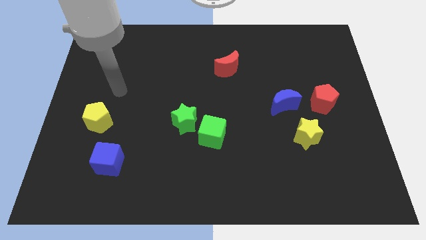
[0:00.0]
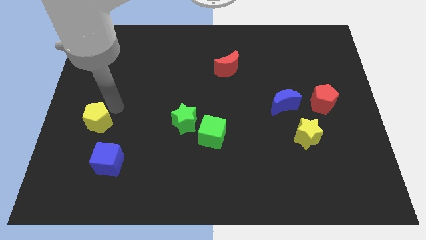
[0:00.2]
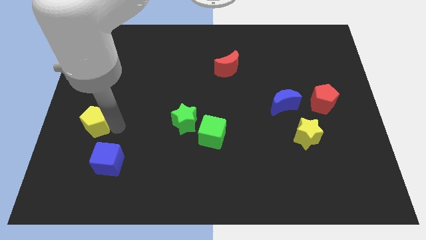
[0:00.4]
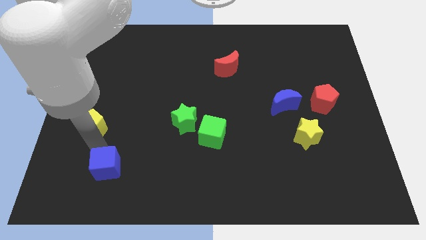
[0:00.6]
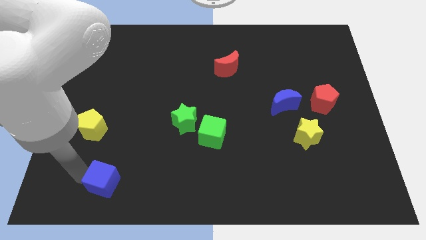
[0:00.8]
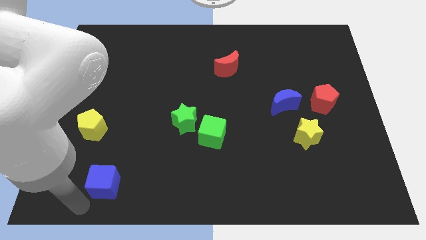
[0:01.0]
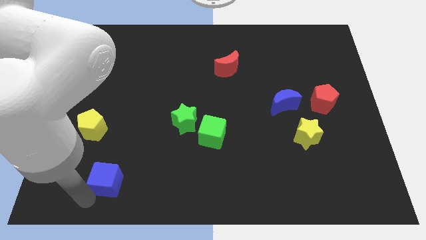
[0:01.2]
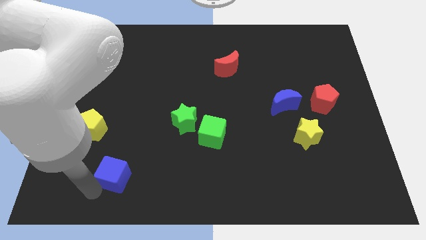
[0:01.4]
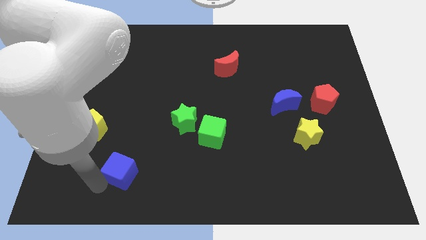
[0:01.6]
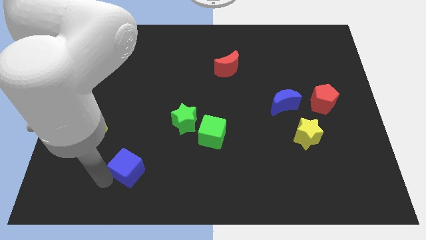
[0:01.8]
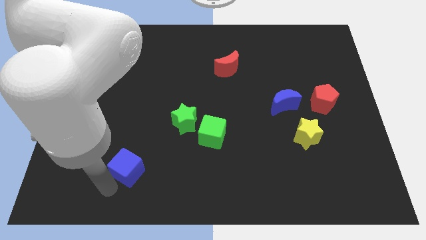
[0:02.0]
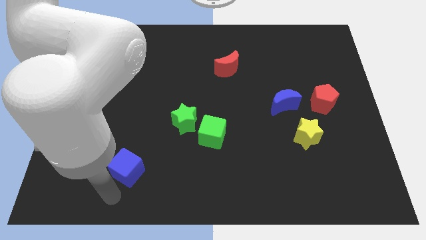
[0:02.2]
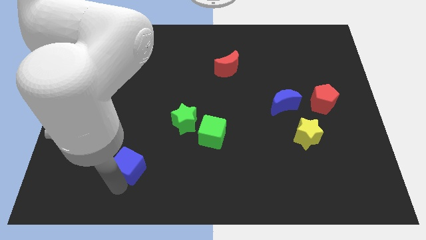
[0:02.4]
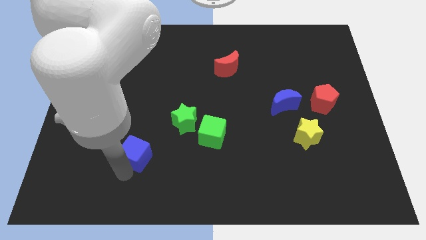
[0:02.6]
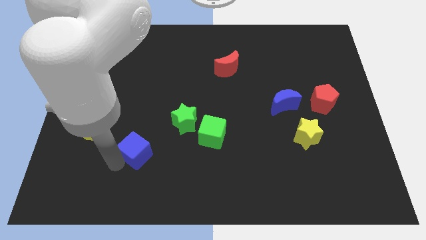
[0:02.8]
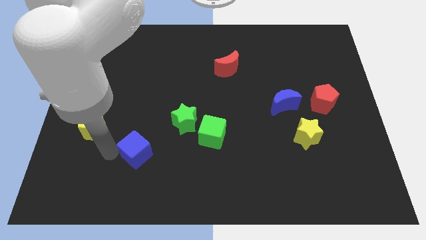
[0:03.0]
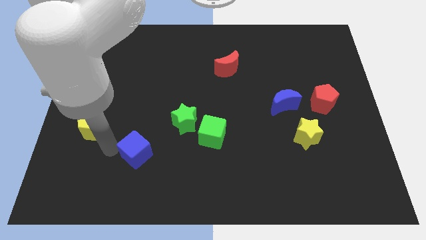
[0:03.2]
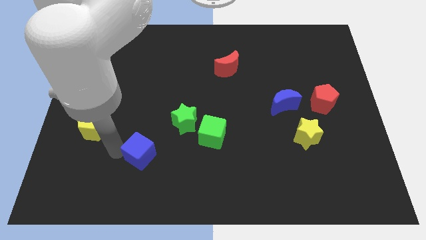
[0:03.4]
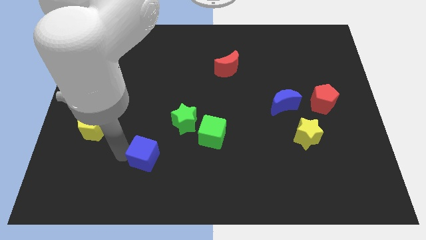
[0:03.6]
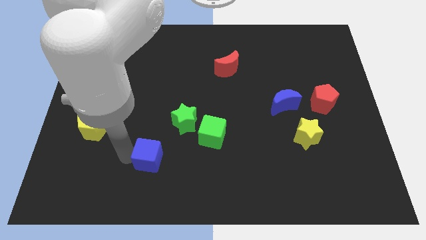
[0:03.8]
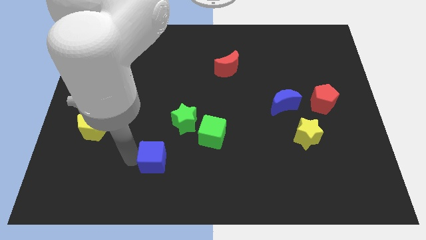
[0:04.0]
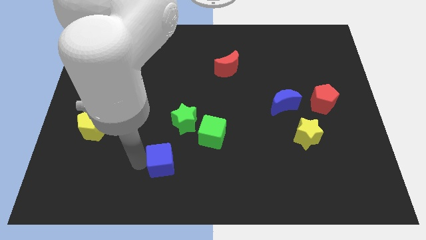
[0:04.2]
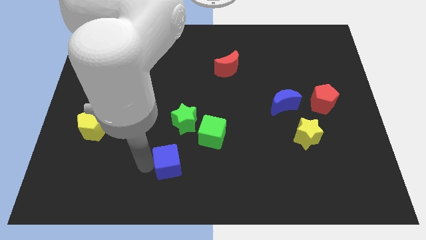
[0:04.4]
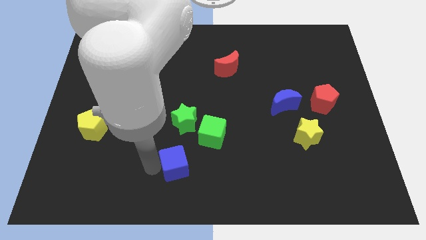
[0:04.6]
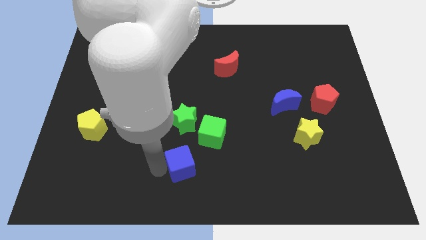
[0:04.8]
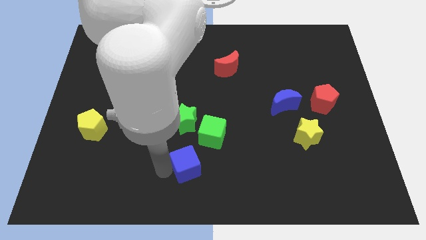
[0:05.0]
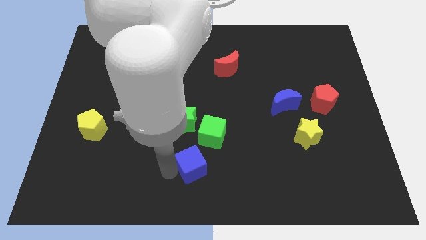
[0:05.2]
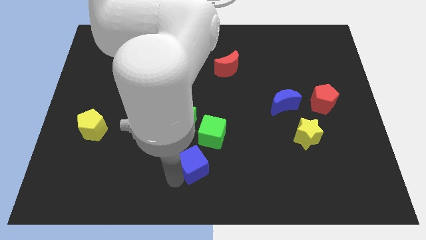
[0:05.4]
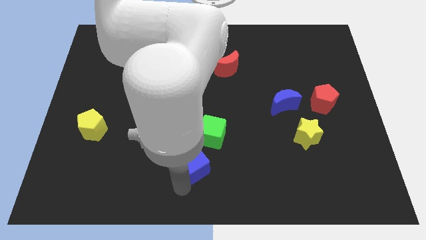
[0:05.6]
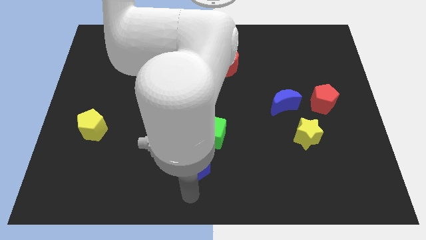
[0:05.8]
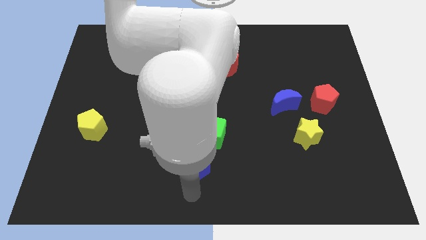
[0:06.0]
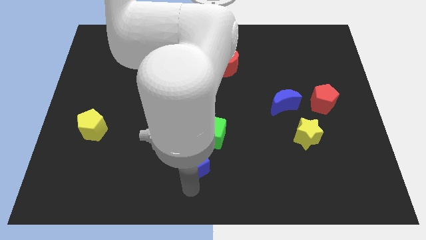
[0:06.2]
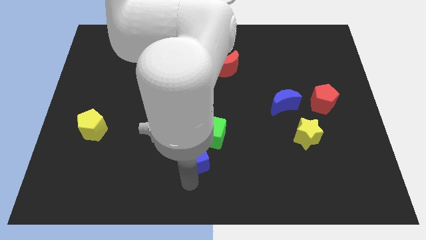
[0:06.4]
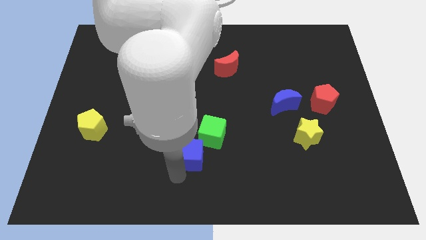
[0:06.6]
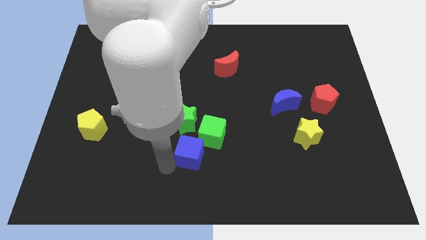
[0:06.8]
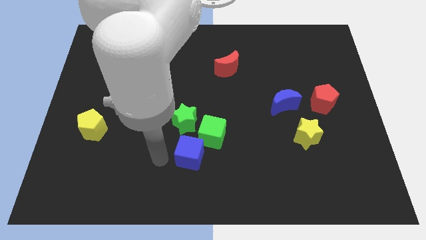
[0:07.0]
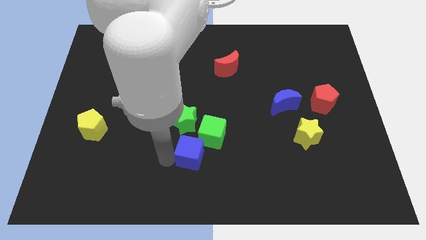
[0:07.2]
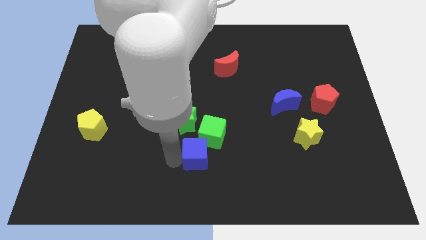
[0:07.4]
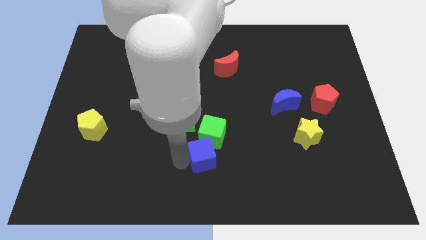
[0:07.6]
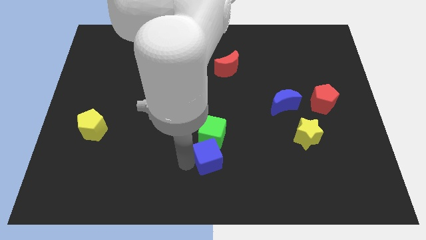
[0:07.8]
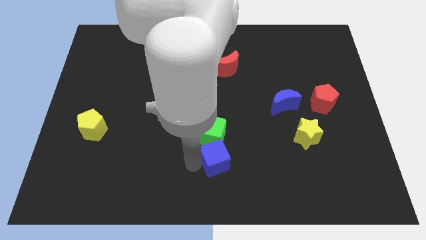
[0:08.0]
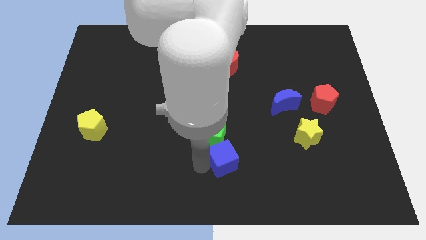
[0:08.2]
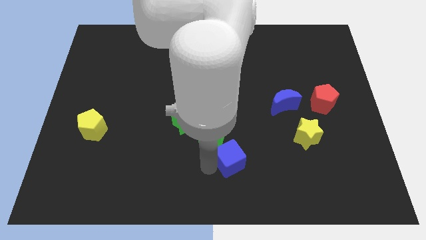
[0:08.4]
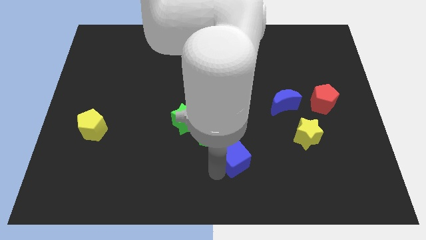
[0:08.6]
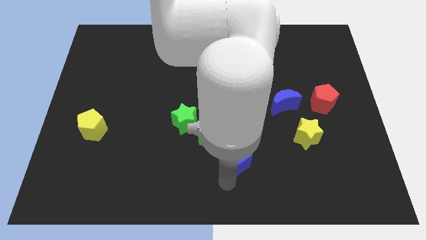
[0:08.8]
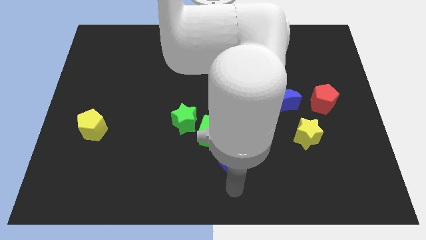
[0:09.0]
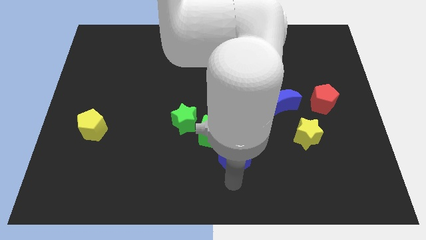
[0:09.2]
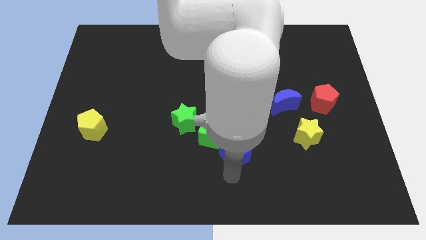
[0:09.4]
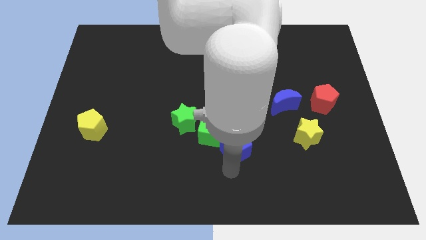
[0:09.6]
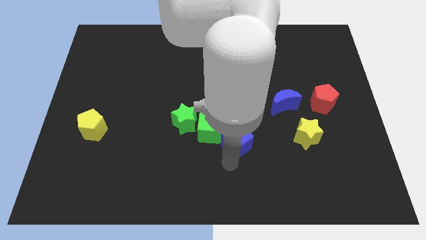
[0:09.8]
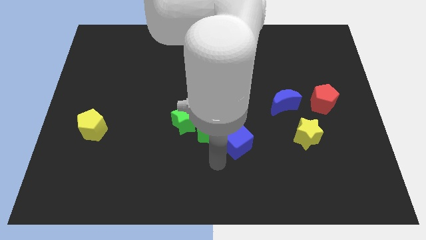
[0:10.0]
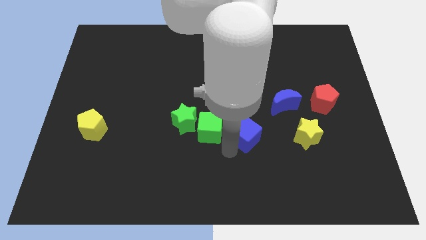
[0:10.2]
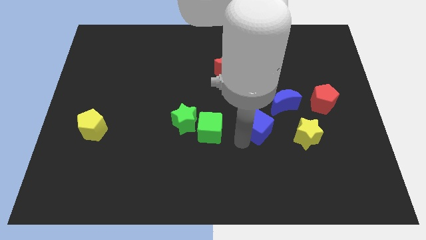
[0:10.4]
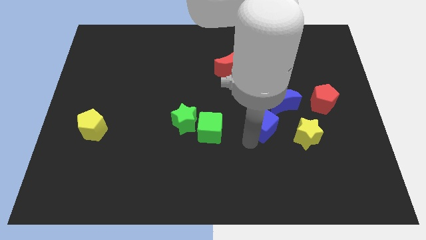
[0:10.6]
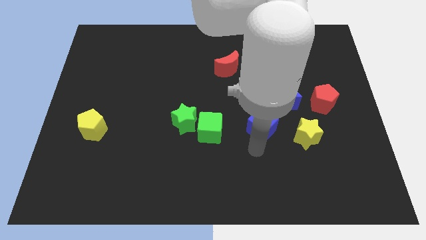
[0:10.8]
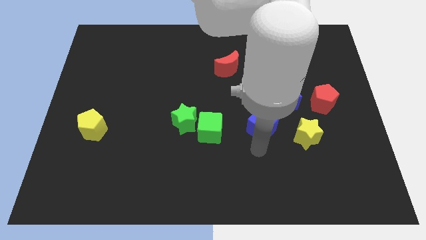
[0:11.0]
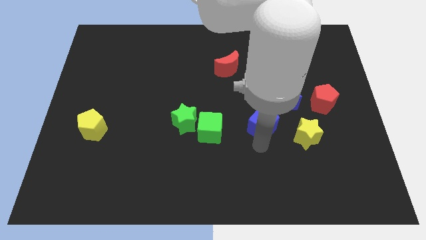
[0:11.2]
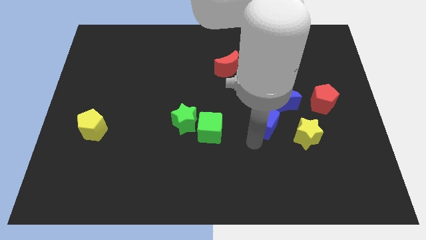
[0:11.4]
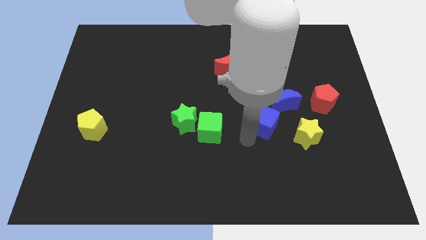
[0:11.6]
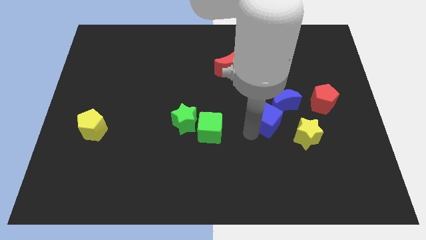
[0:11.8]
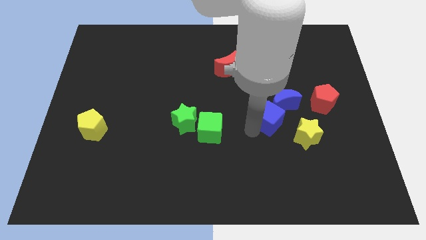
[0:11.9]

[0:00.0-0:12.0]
push the blue cube close to the blue moon
